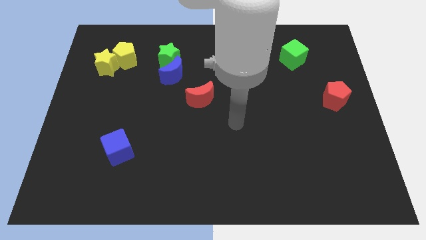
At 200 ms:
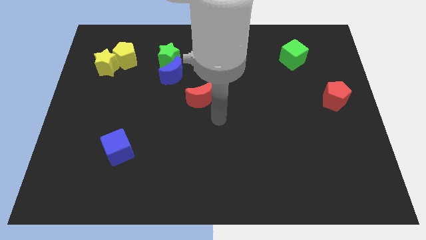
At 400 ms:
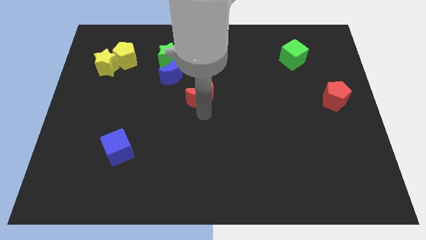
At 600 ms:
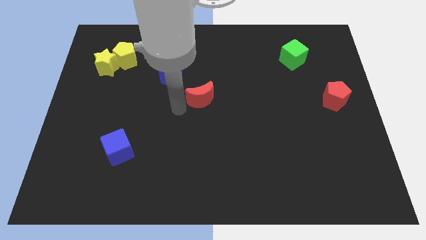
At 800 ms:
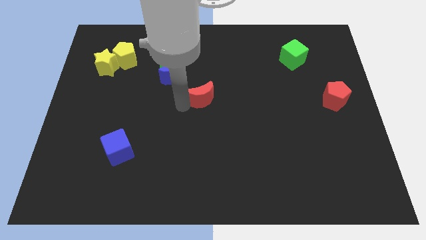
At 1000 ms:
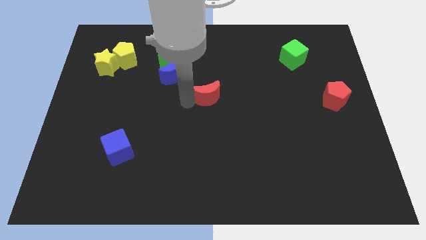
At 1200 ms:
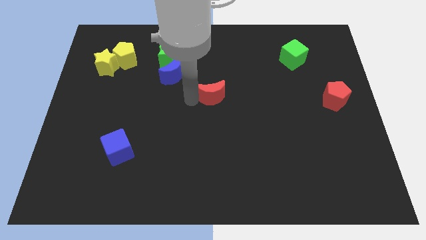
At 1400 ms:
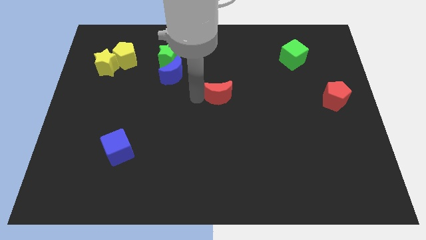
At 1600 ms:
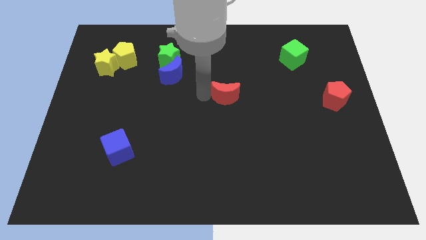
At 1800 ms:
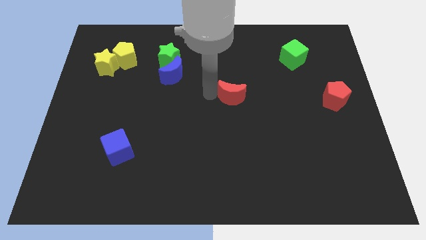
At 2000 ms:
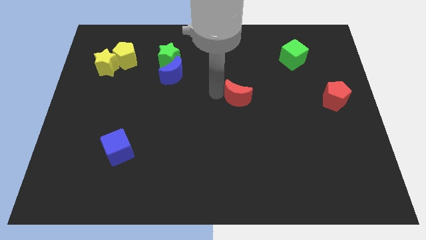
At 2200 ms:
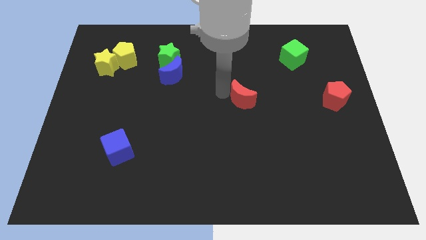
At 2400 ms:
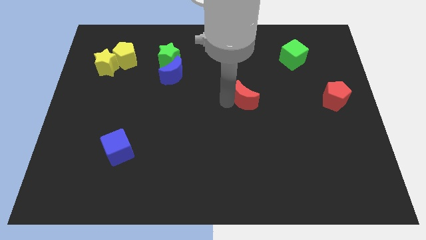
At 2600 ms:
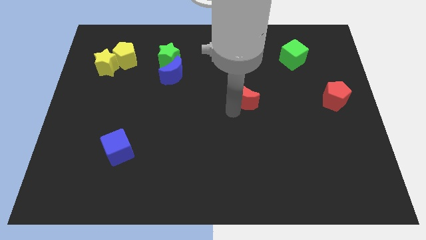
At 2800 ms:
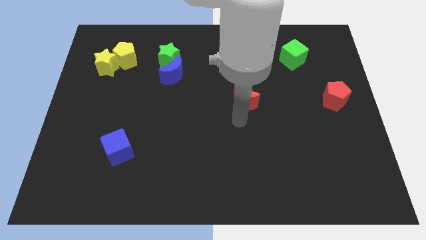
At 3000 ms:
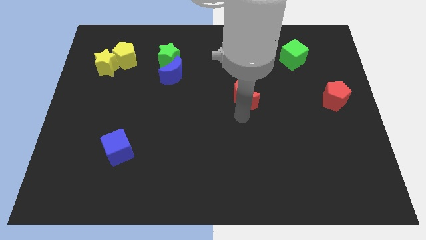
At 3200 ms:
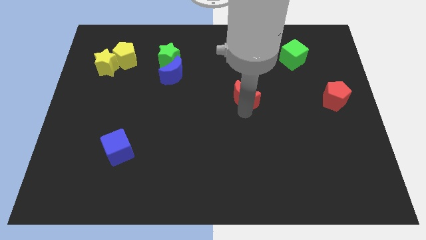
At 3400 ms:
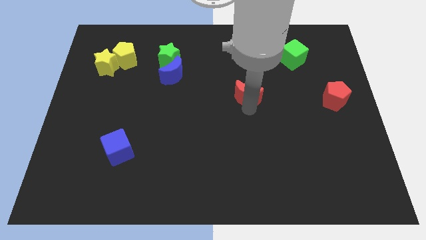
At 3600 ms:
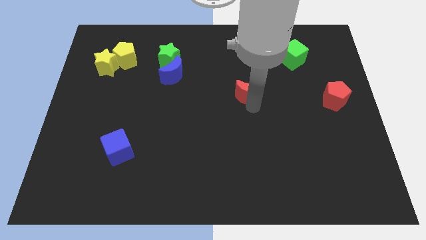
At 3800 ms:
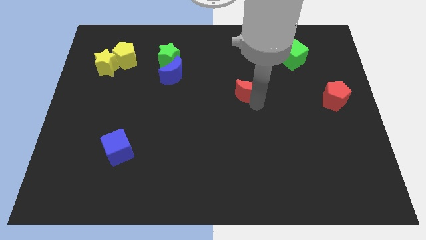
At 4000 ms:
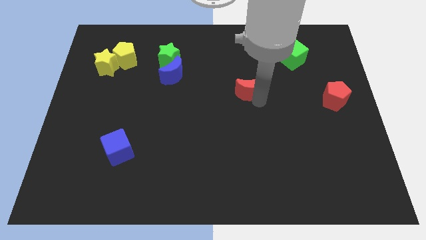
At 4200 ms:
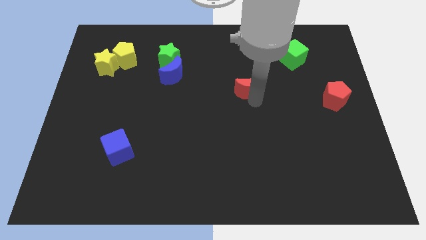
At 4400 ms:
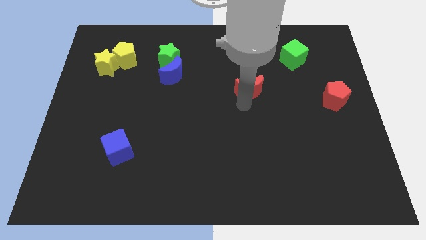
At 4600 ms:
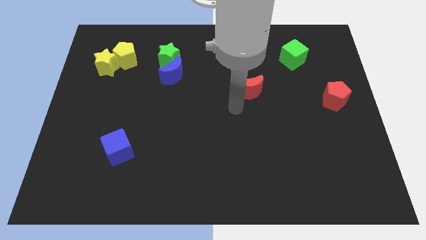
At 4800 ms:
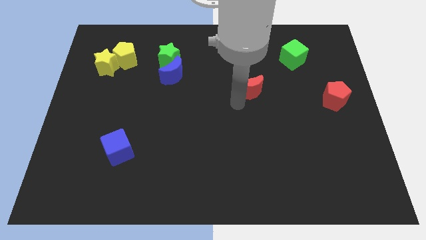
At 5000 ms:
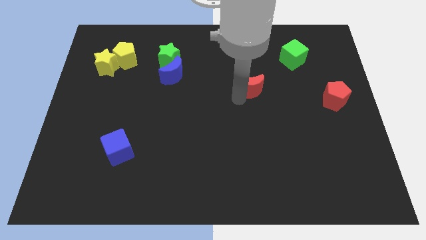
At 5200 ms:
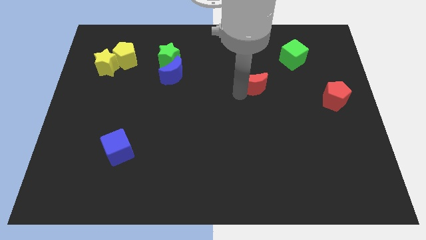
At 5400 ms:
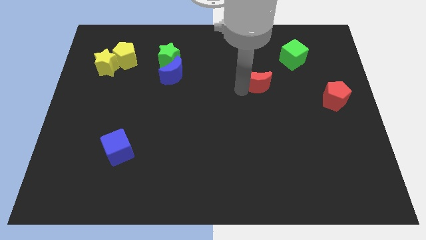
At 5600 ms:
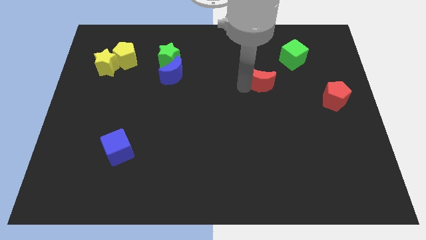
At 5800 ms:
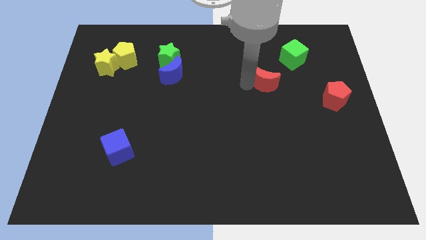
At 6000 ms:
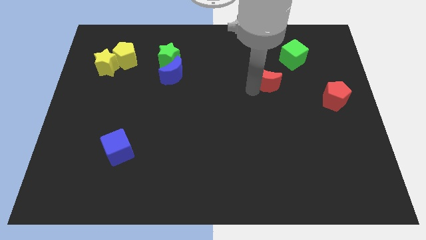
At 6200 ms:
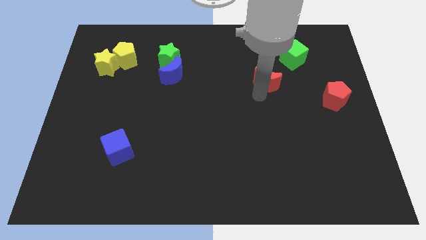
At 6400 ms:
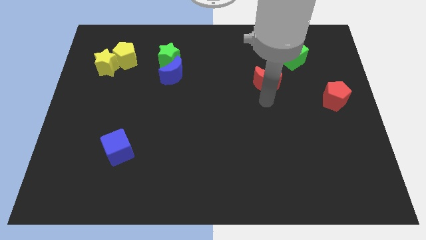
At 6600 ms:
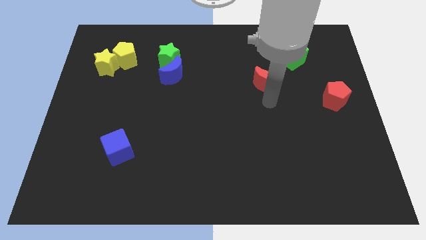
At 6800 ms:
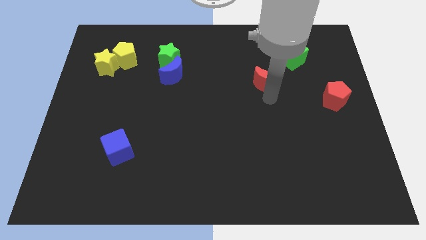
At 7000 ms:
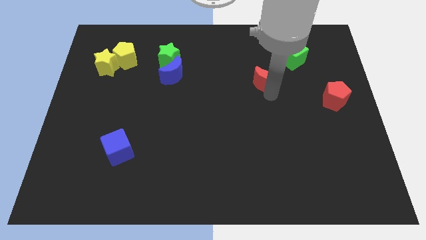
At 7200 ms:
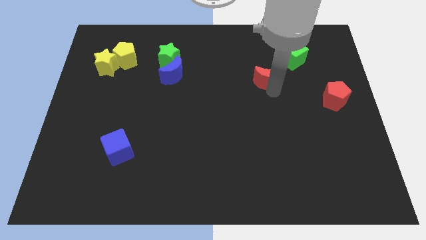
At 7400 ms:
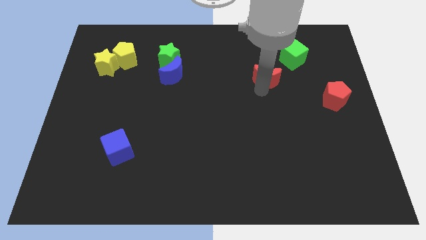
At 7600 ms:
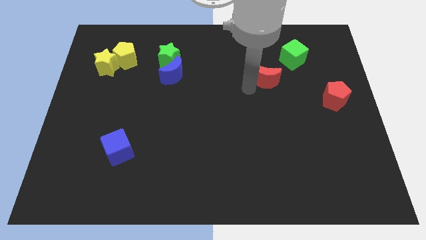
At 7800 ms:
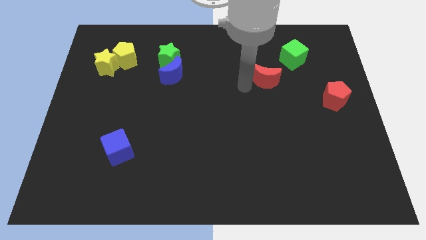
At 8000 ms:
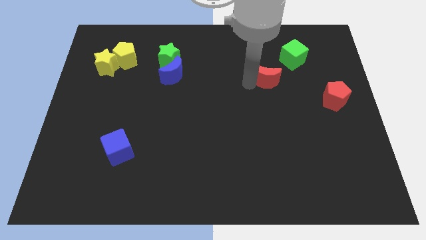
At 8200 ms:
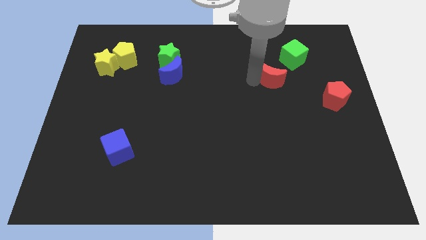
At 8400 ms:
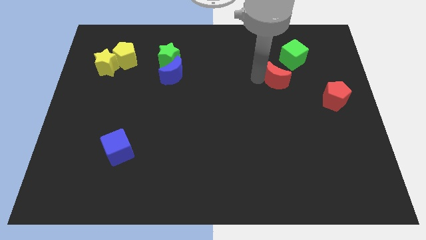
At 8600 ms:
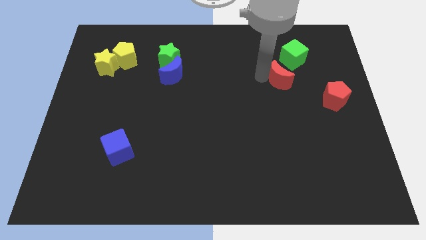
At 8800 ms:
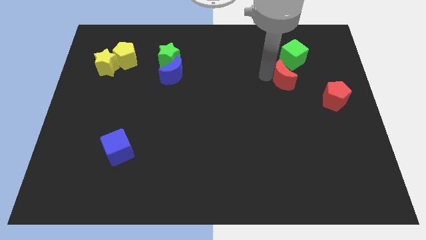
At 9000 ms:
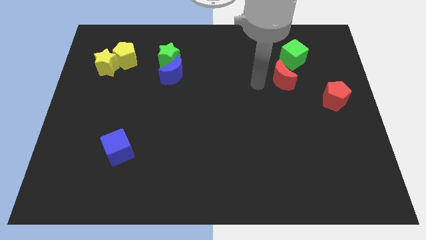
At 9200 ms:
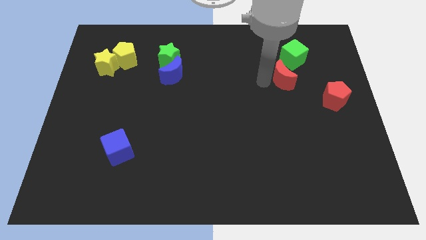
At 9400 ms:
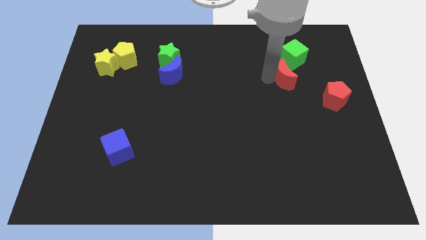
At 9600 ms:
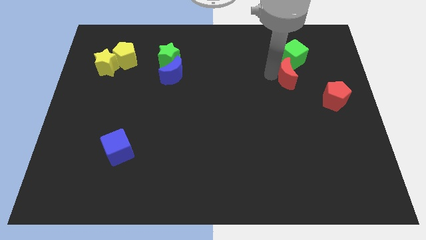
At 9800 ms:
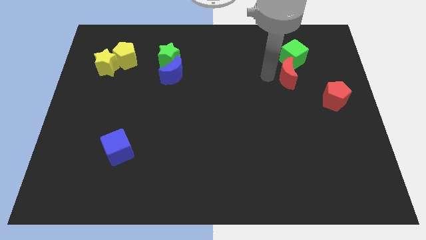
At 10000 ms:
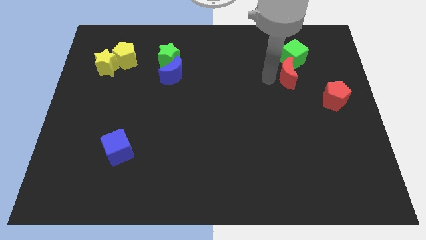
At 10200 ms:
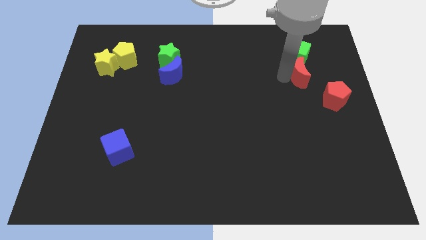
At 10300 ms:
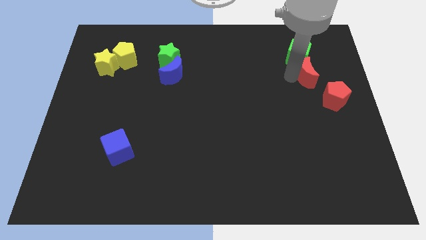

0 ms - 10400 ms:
slide the red moon to the bottom right of the green cube

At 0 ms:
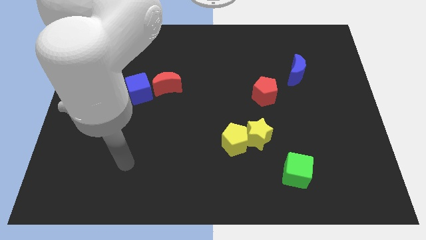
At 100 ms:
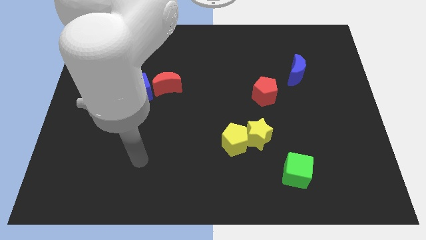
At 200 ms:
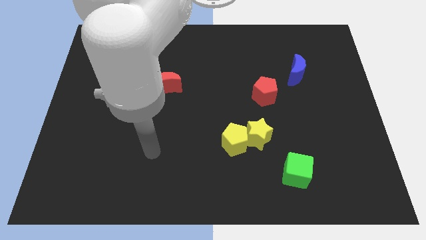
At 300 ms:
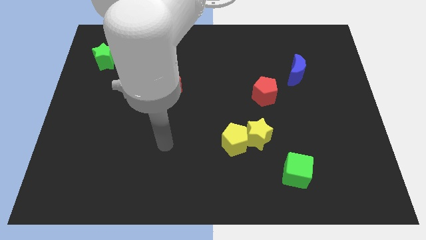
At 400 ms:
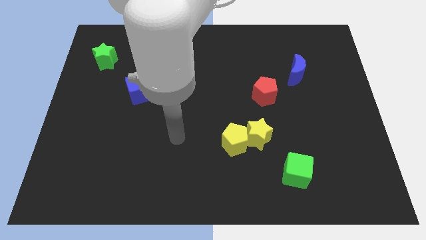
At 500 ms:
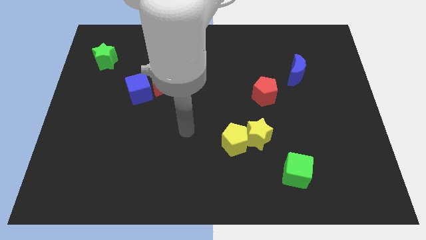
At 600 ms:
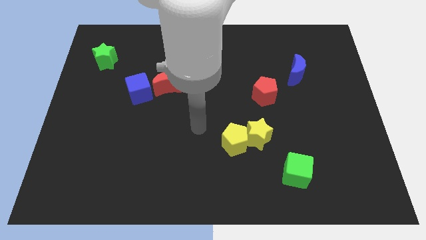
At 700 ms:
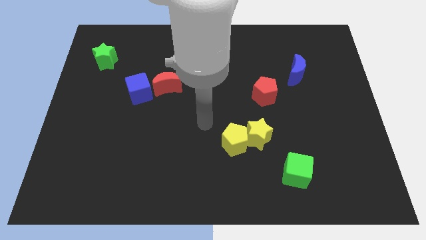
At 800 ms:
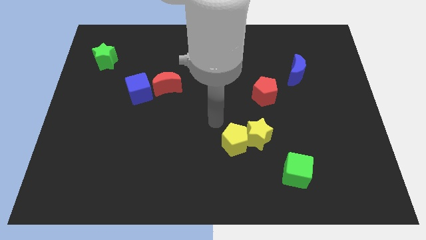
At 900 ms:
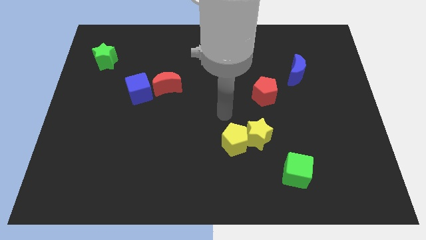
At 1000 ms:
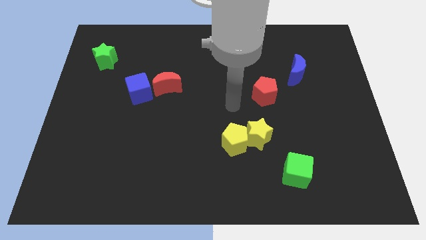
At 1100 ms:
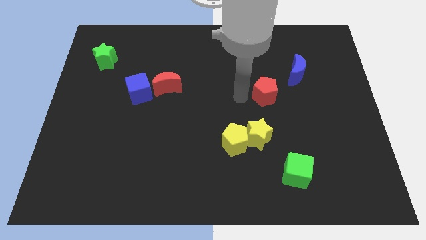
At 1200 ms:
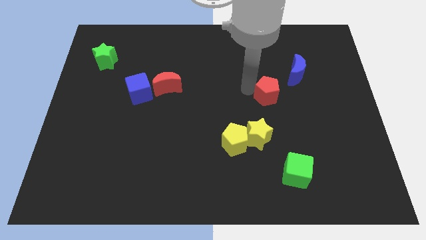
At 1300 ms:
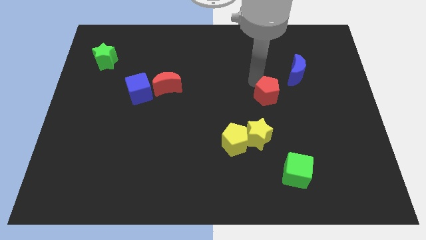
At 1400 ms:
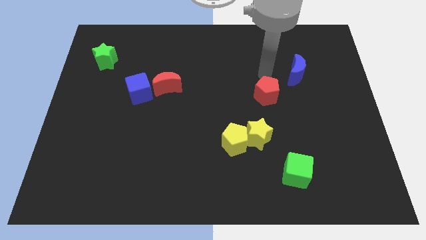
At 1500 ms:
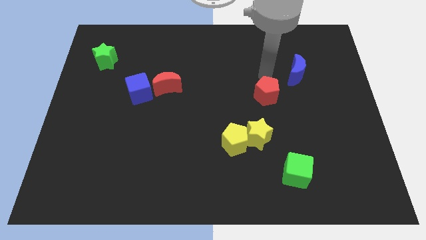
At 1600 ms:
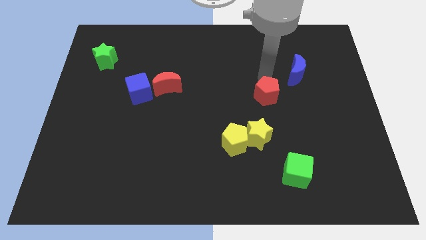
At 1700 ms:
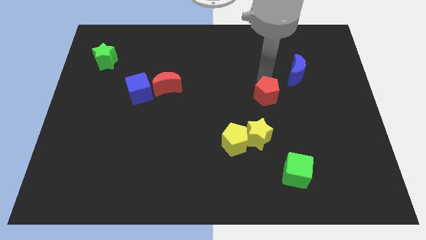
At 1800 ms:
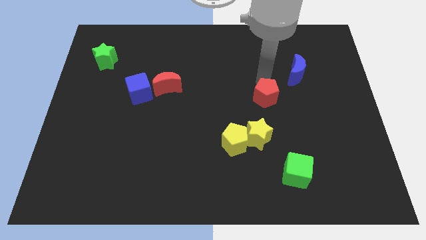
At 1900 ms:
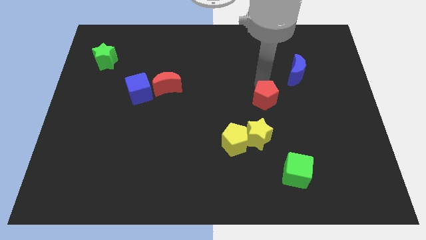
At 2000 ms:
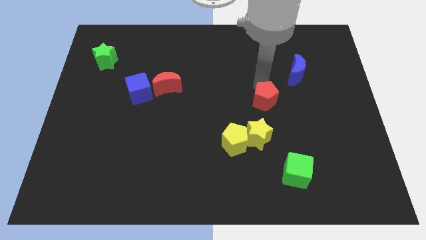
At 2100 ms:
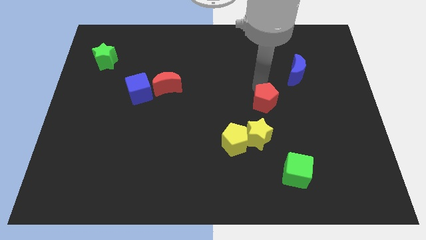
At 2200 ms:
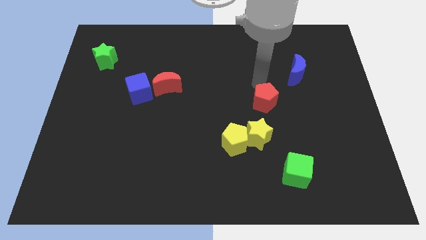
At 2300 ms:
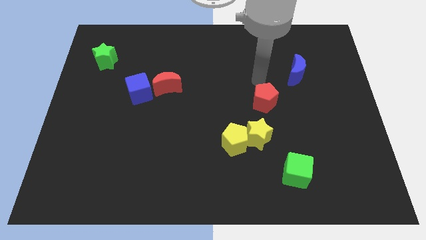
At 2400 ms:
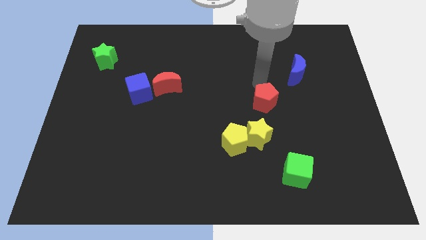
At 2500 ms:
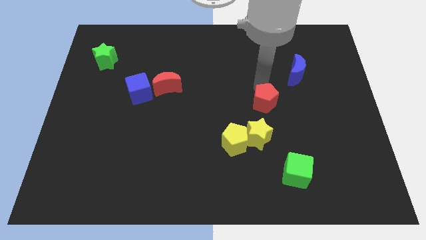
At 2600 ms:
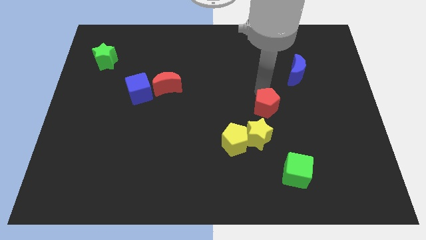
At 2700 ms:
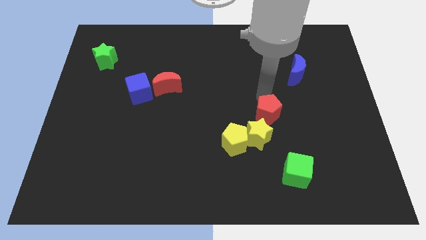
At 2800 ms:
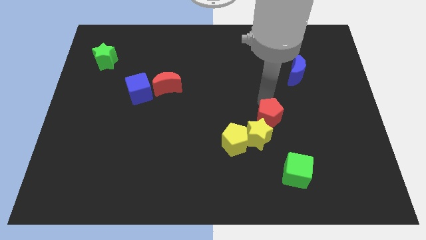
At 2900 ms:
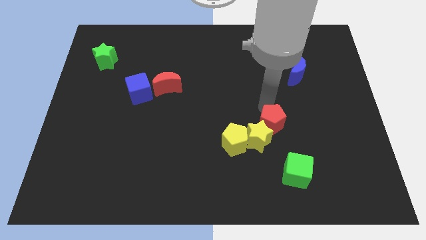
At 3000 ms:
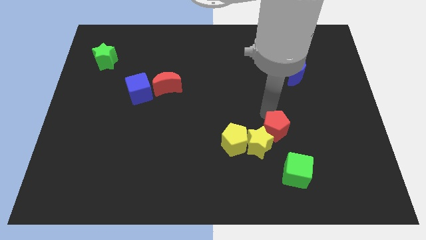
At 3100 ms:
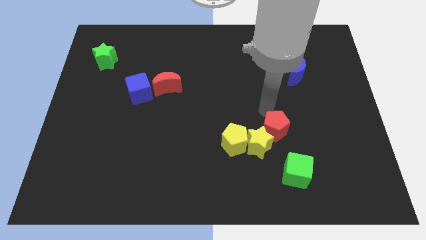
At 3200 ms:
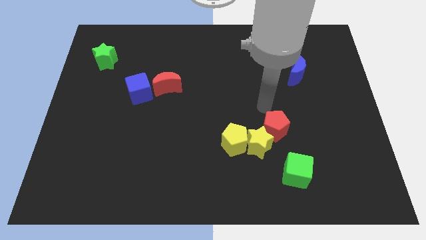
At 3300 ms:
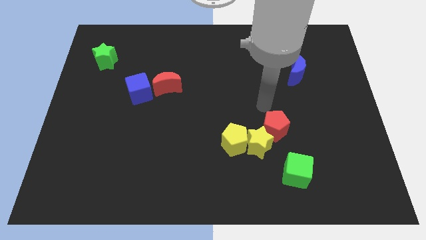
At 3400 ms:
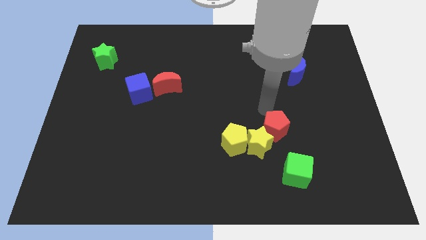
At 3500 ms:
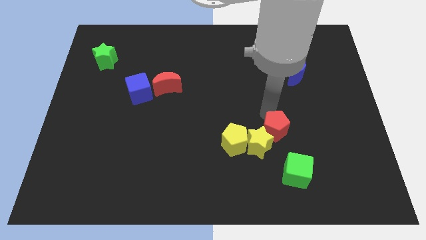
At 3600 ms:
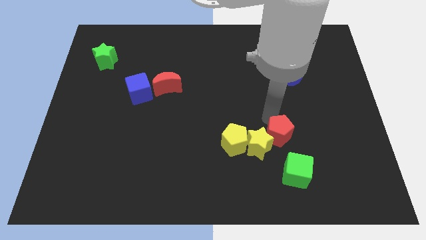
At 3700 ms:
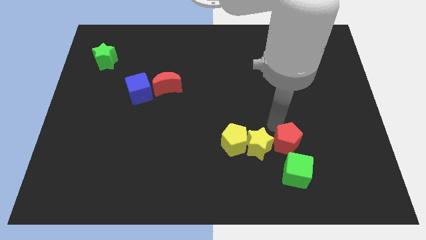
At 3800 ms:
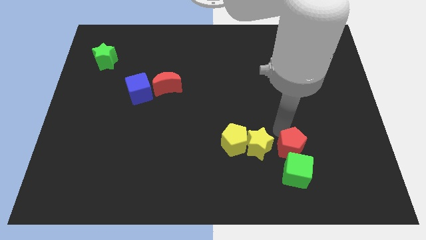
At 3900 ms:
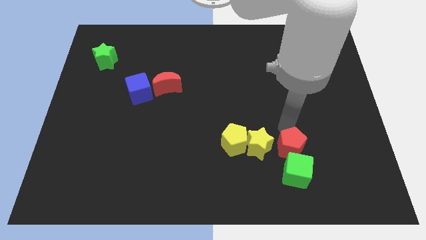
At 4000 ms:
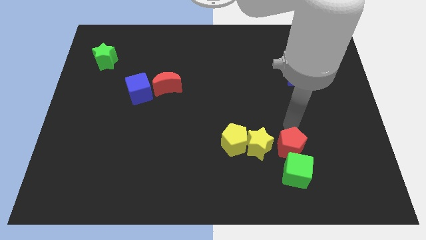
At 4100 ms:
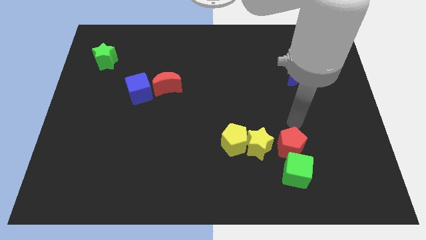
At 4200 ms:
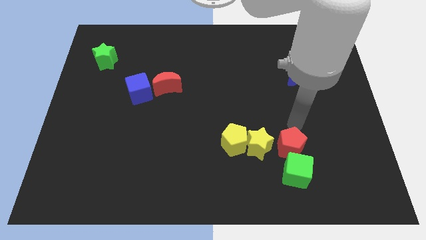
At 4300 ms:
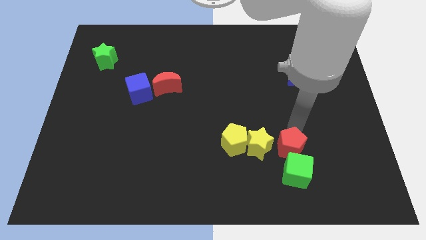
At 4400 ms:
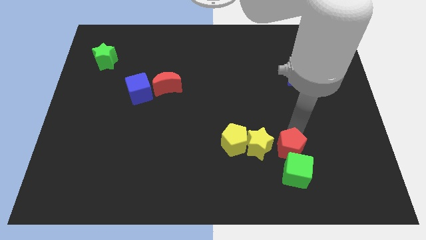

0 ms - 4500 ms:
push the red pentagon diagonally down and to the right of the yellow star
